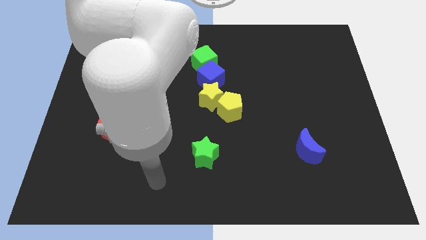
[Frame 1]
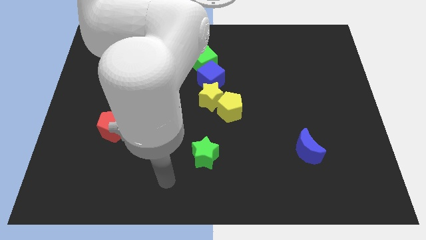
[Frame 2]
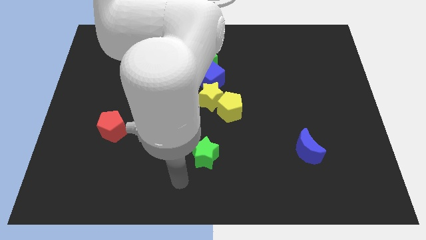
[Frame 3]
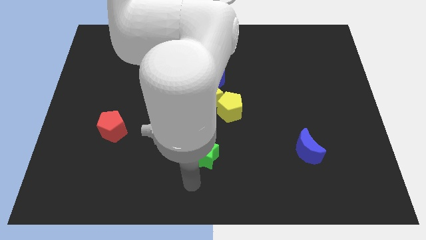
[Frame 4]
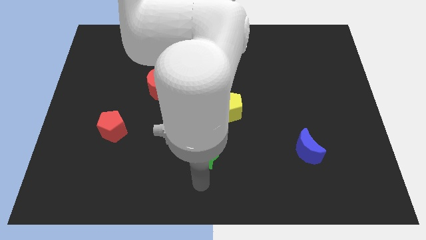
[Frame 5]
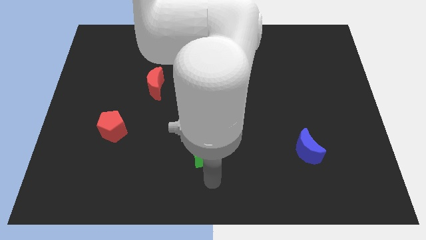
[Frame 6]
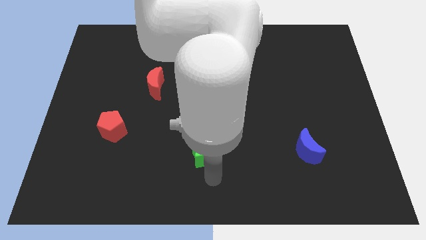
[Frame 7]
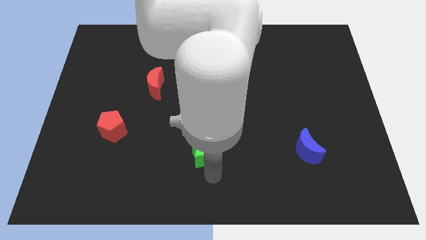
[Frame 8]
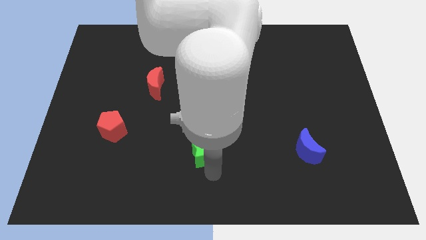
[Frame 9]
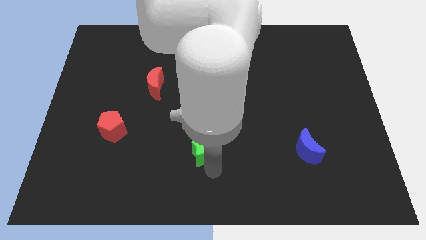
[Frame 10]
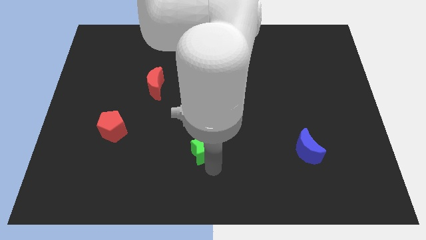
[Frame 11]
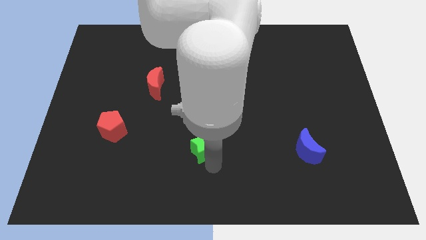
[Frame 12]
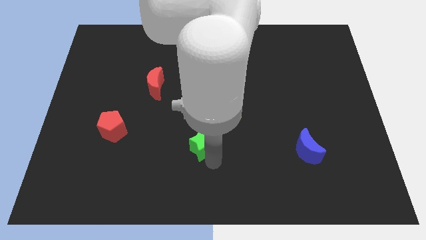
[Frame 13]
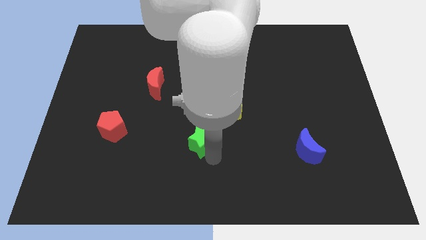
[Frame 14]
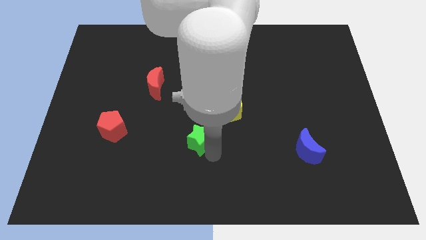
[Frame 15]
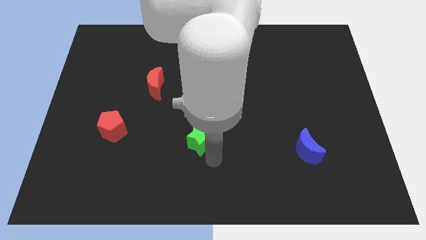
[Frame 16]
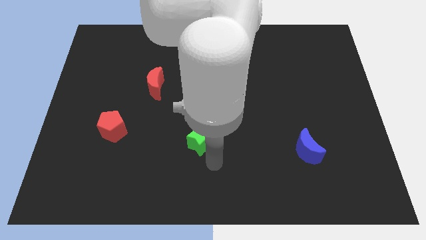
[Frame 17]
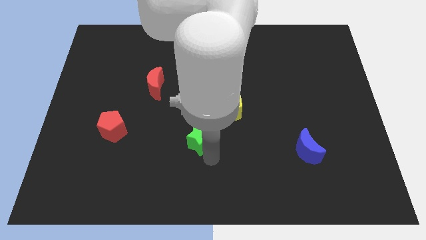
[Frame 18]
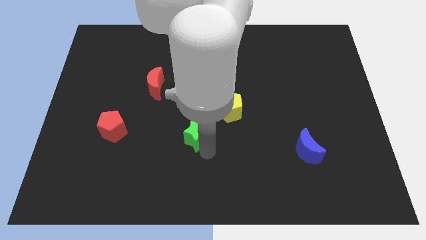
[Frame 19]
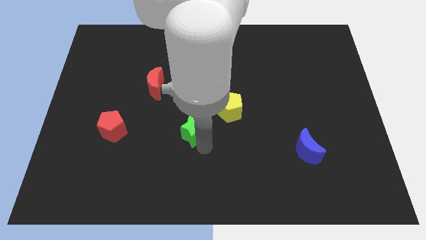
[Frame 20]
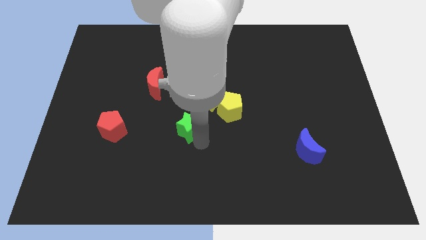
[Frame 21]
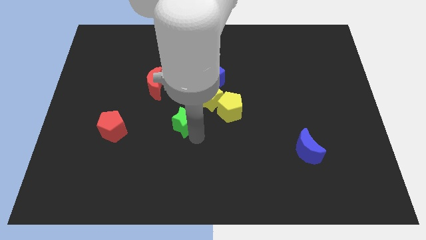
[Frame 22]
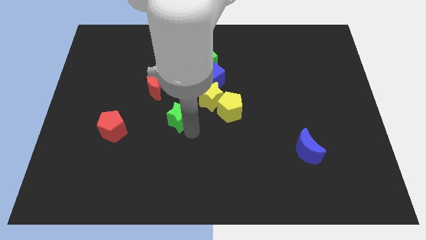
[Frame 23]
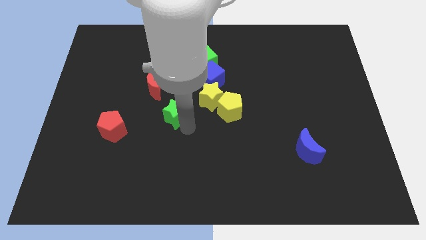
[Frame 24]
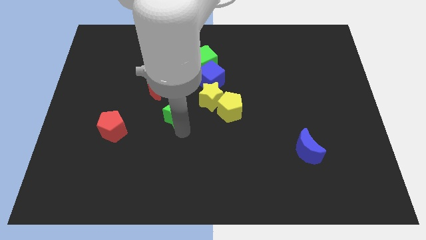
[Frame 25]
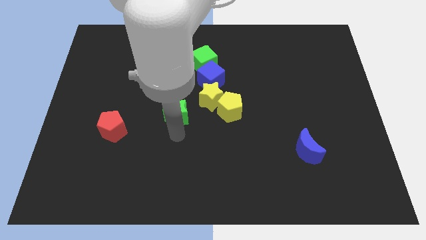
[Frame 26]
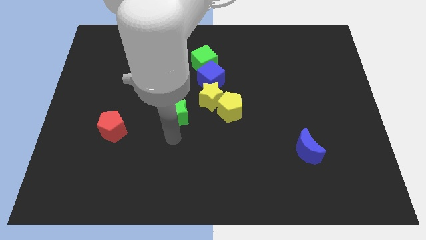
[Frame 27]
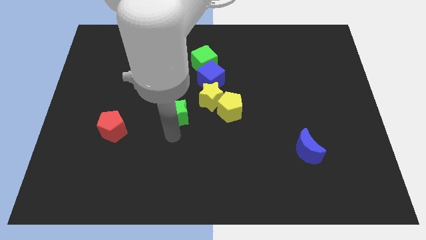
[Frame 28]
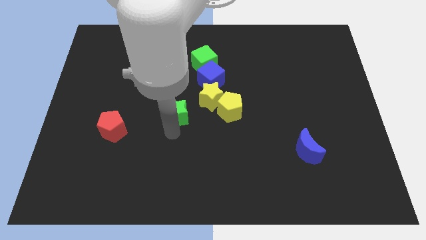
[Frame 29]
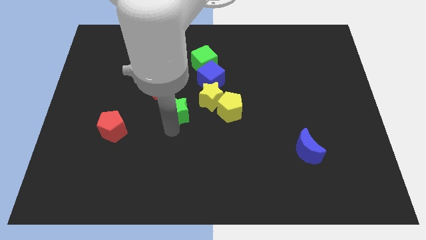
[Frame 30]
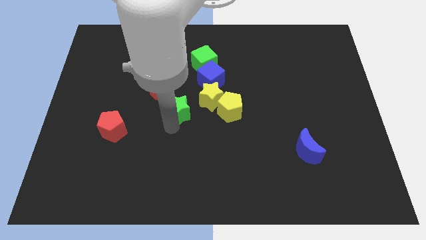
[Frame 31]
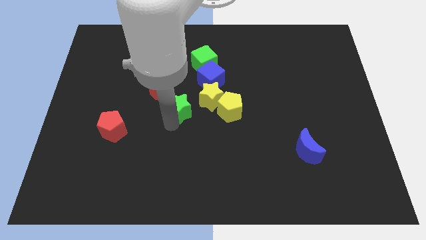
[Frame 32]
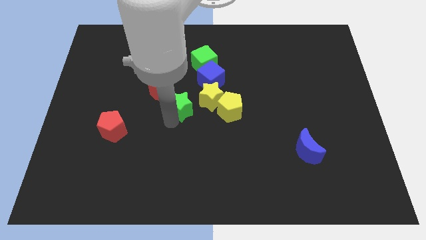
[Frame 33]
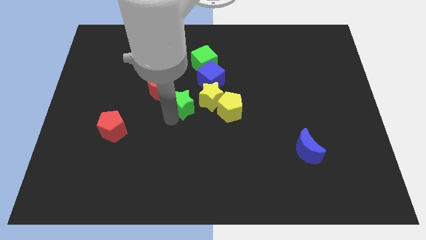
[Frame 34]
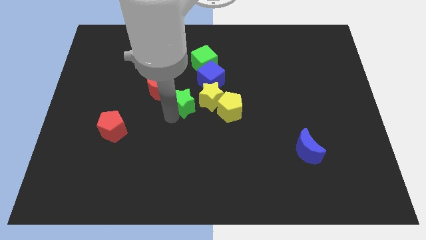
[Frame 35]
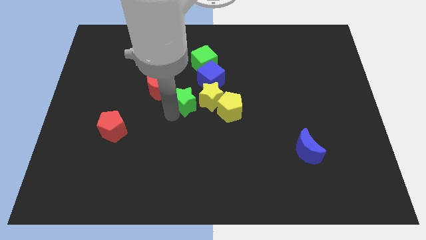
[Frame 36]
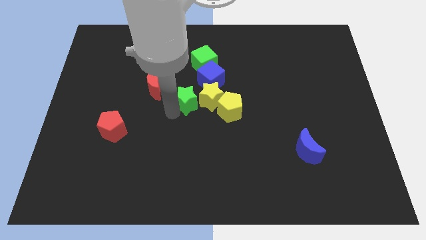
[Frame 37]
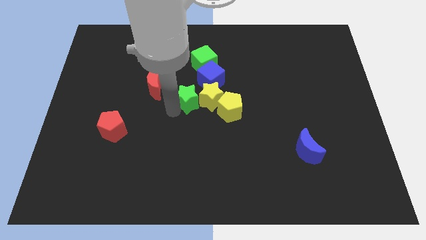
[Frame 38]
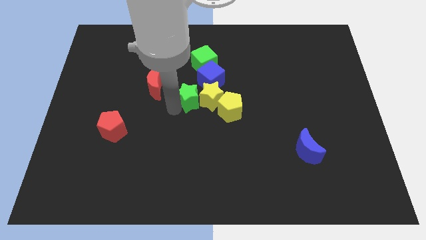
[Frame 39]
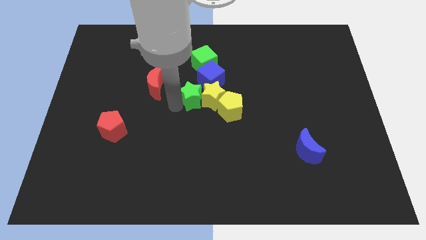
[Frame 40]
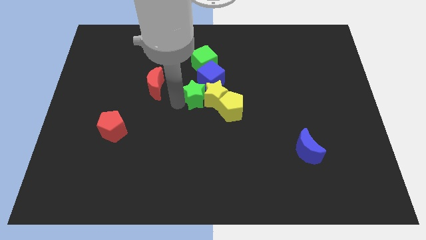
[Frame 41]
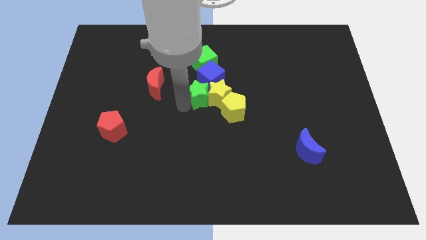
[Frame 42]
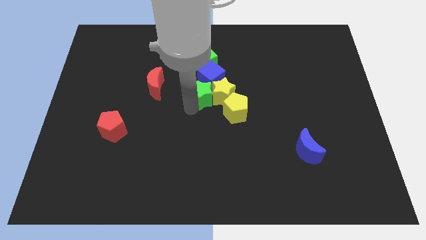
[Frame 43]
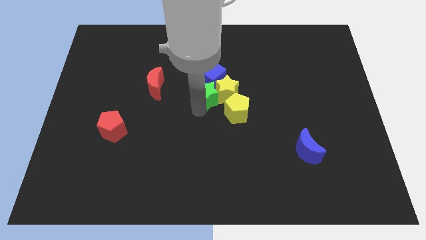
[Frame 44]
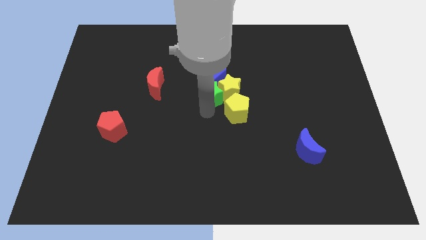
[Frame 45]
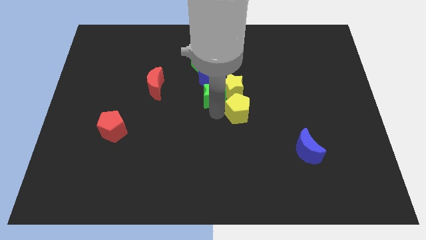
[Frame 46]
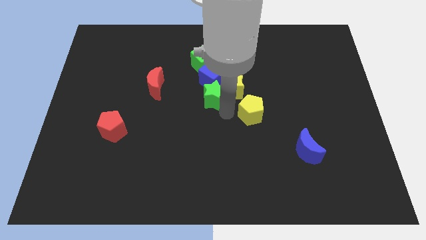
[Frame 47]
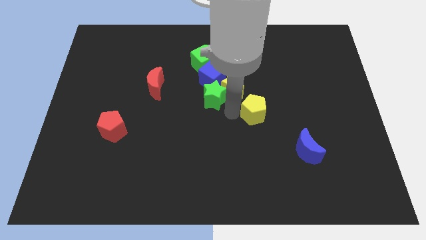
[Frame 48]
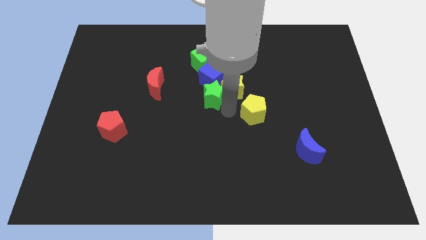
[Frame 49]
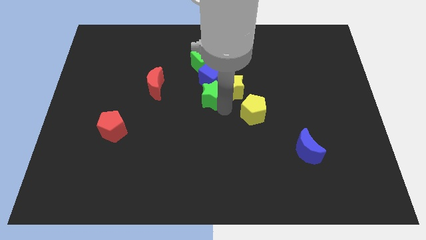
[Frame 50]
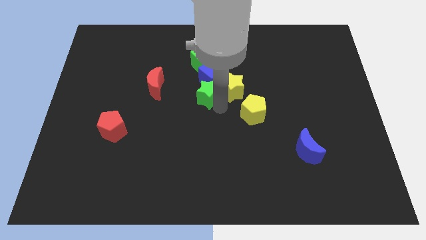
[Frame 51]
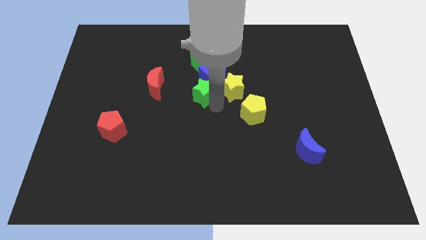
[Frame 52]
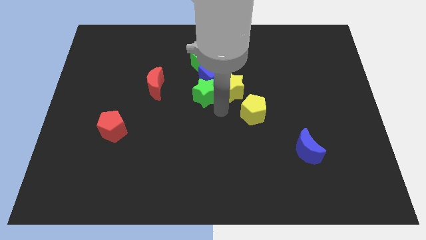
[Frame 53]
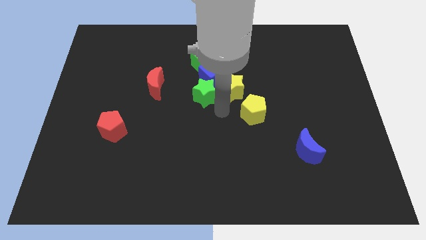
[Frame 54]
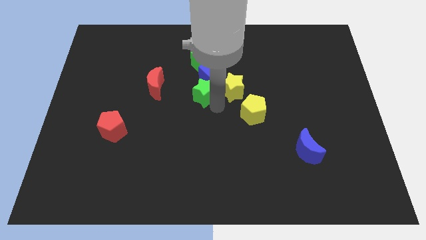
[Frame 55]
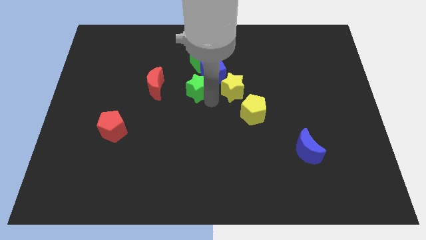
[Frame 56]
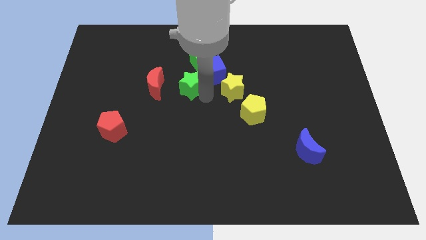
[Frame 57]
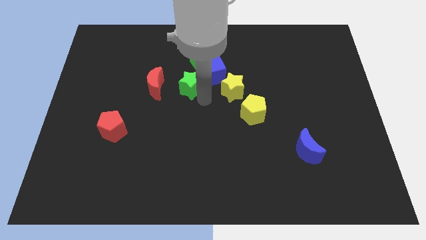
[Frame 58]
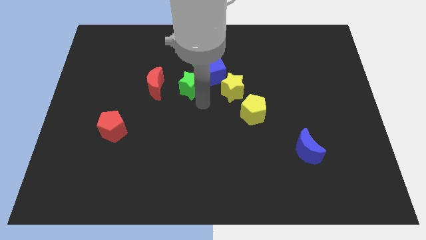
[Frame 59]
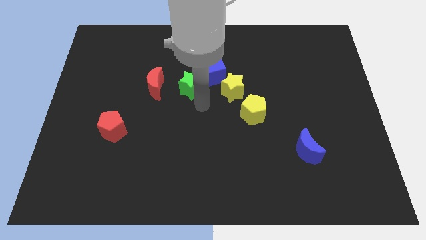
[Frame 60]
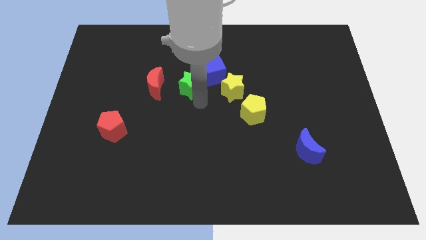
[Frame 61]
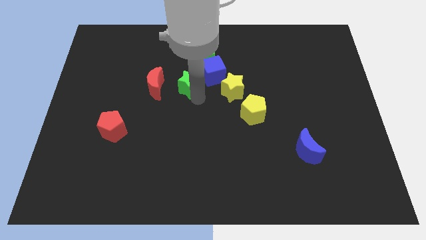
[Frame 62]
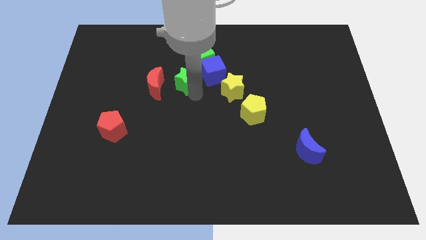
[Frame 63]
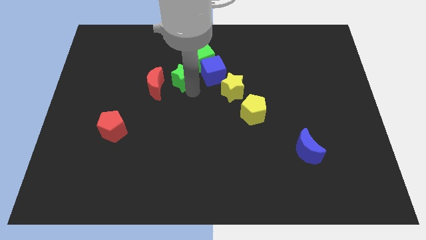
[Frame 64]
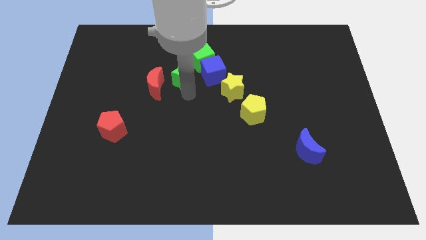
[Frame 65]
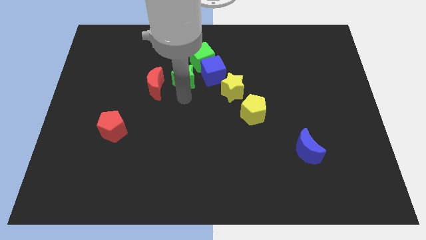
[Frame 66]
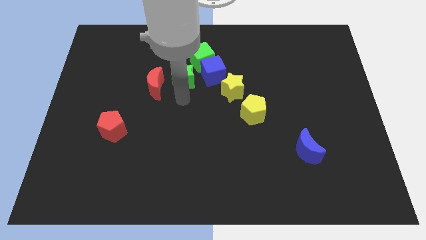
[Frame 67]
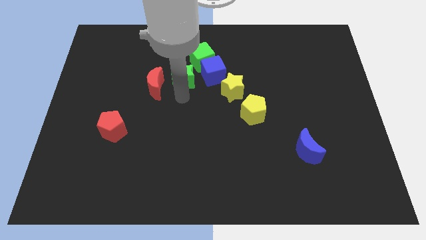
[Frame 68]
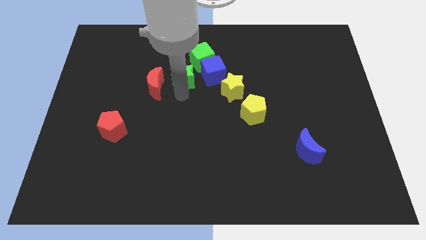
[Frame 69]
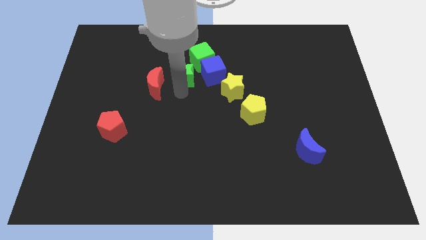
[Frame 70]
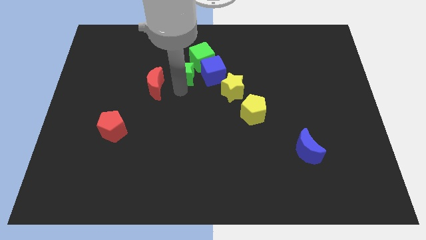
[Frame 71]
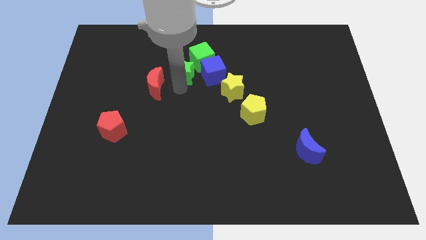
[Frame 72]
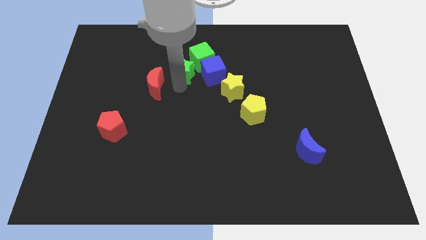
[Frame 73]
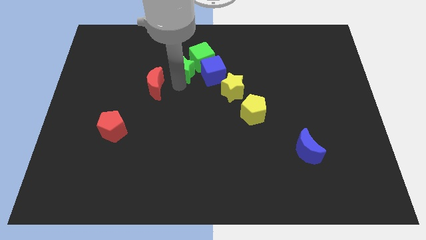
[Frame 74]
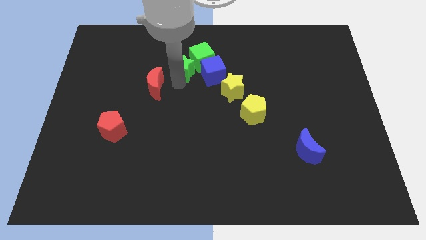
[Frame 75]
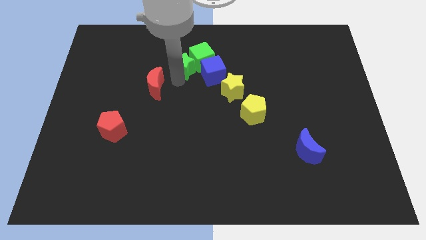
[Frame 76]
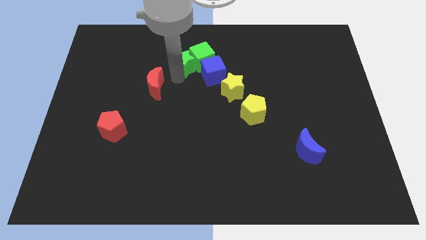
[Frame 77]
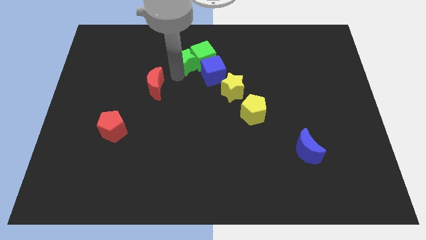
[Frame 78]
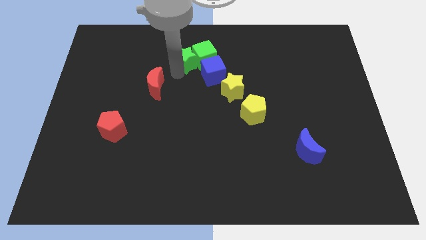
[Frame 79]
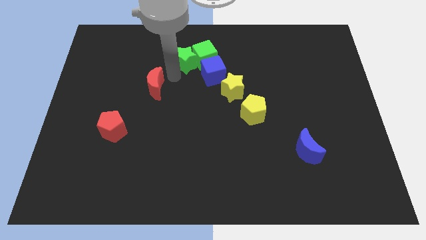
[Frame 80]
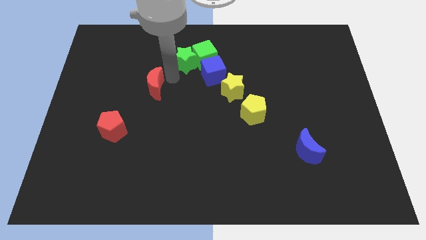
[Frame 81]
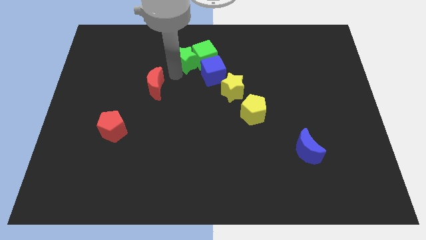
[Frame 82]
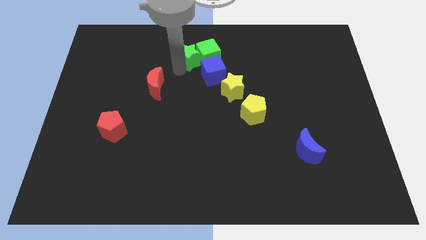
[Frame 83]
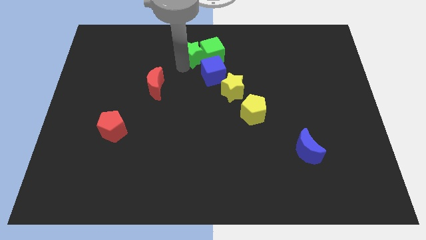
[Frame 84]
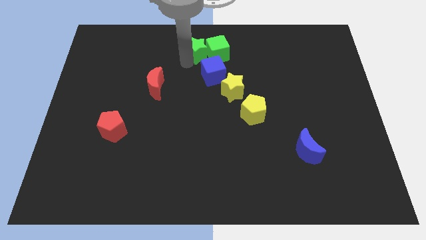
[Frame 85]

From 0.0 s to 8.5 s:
put the green star to the towards your base
